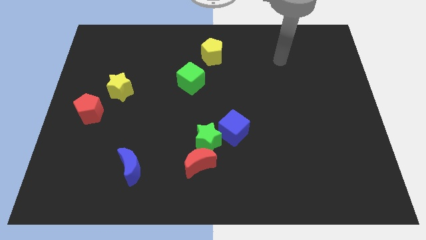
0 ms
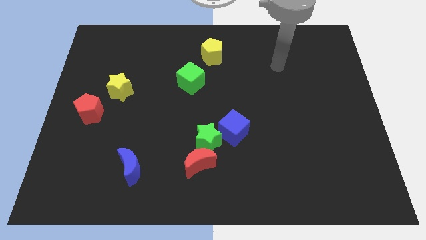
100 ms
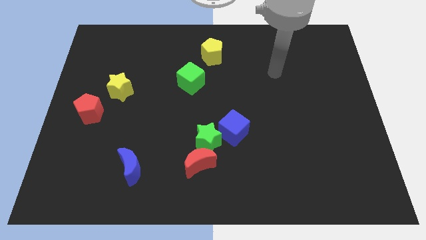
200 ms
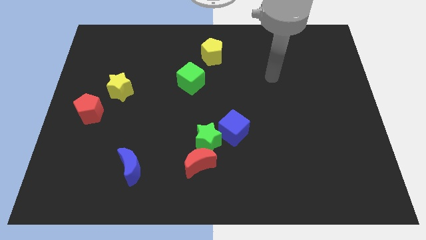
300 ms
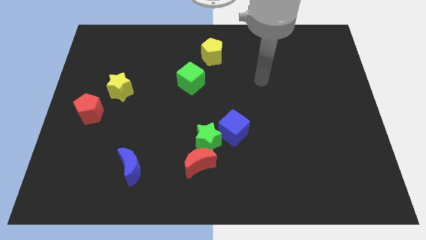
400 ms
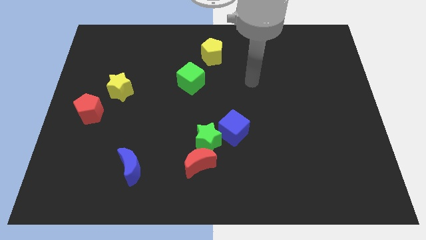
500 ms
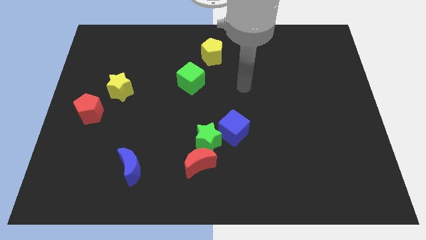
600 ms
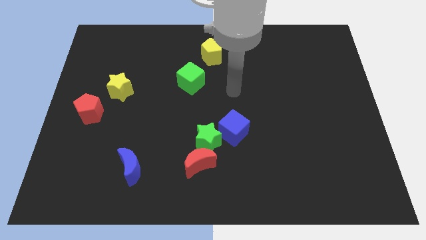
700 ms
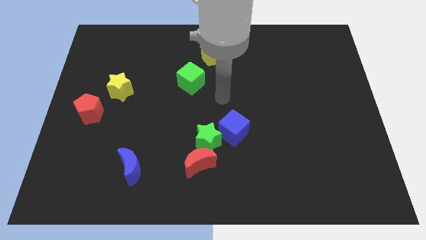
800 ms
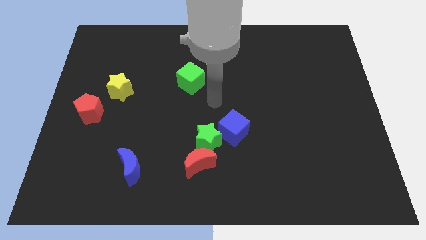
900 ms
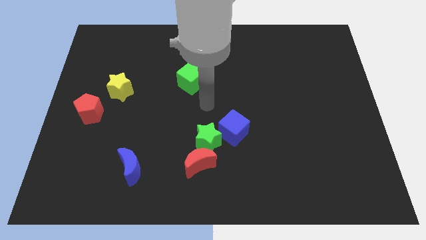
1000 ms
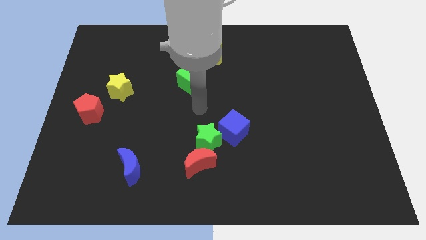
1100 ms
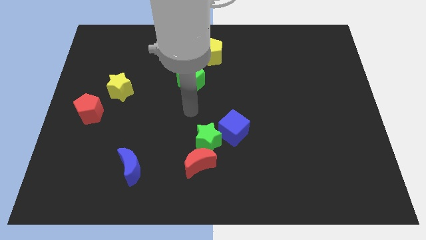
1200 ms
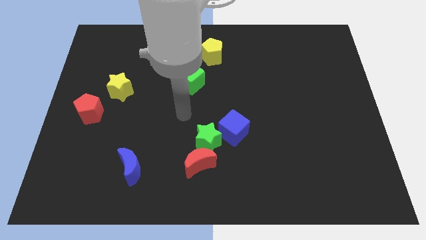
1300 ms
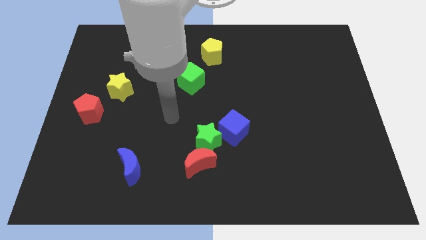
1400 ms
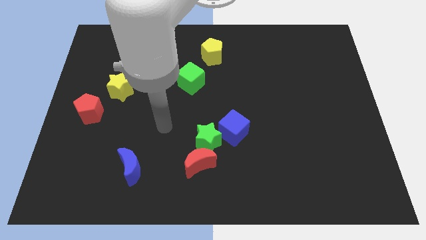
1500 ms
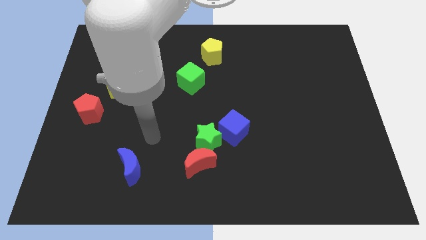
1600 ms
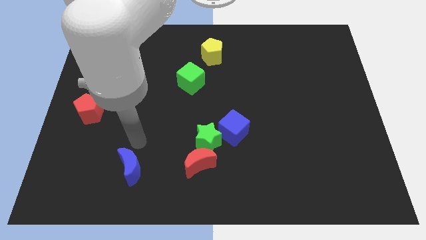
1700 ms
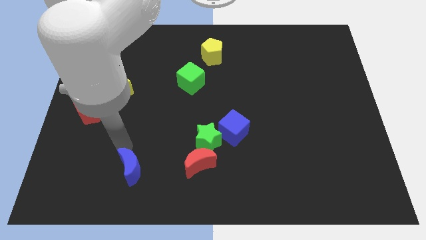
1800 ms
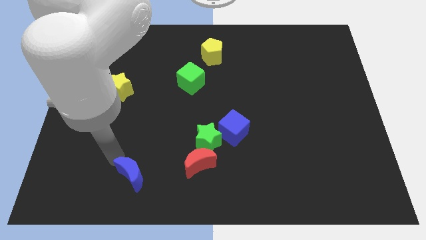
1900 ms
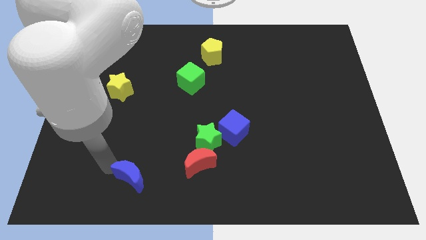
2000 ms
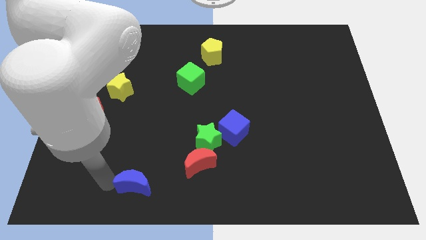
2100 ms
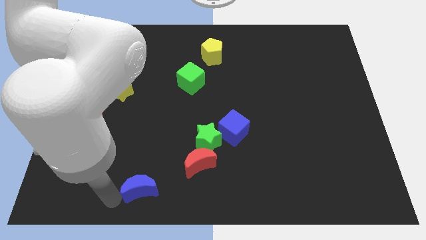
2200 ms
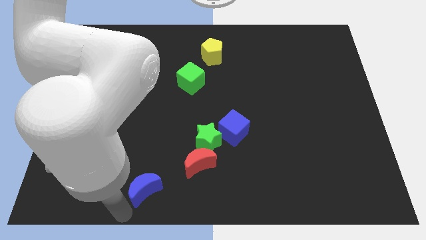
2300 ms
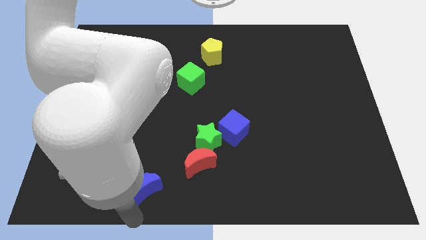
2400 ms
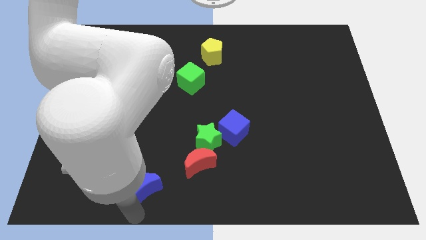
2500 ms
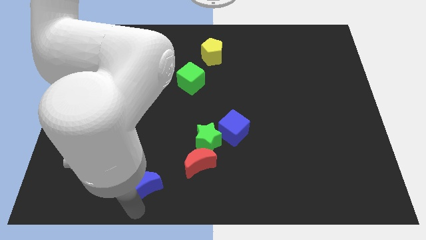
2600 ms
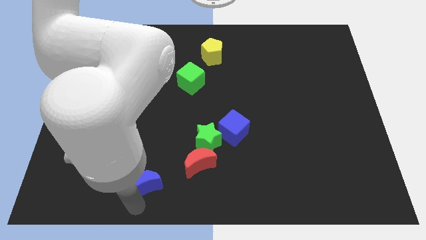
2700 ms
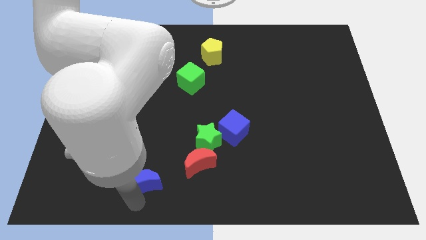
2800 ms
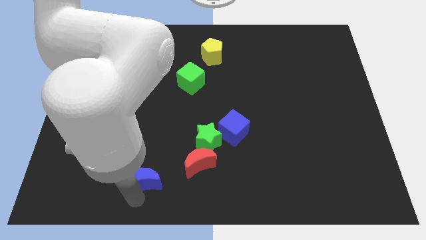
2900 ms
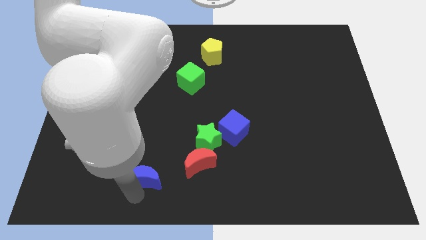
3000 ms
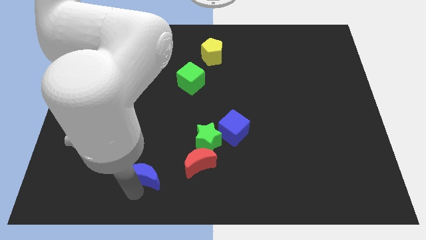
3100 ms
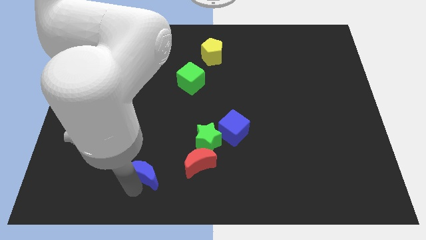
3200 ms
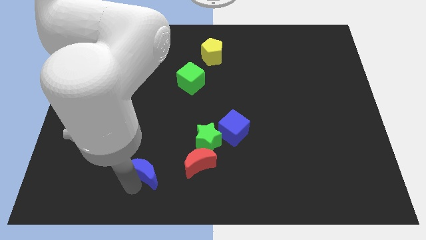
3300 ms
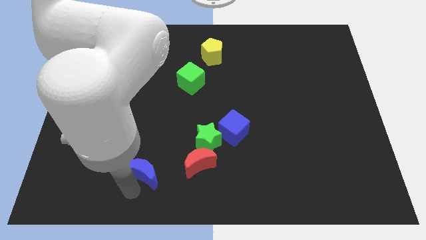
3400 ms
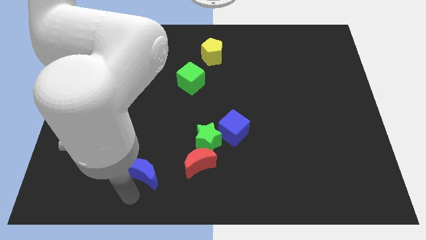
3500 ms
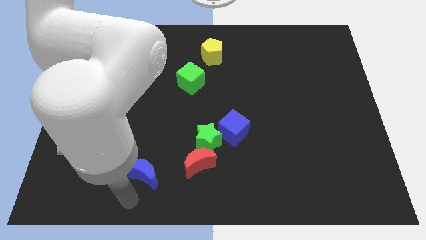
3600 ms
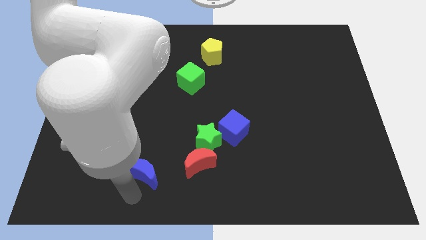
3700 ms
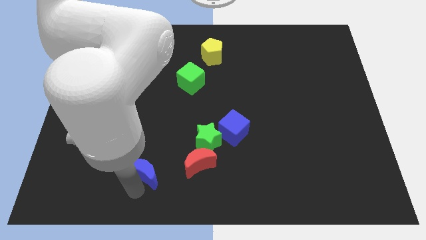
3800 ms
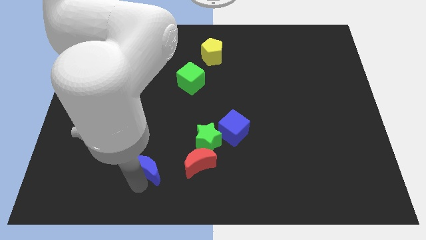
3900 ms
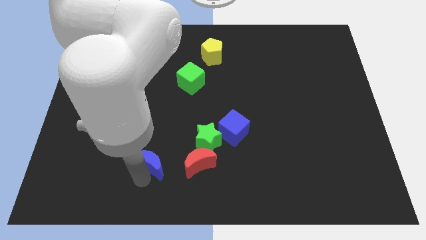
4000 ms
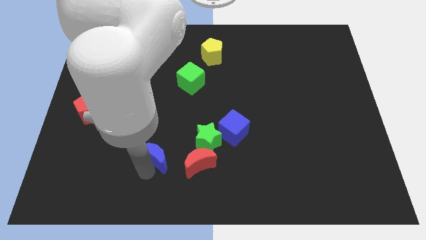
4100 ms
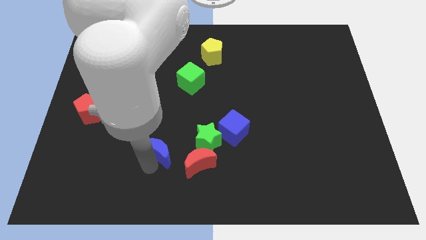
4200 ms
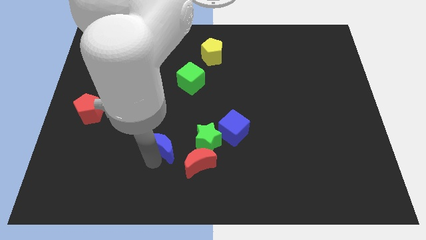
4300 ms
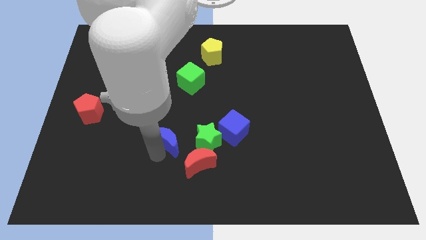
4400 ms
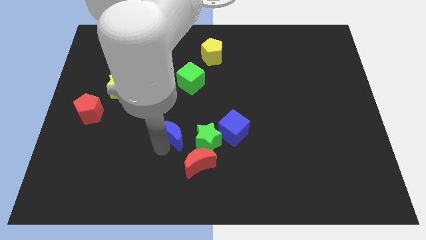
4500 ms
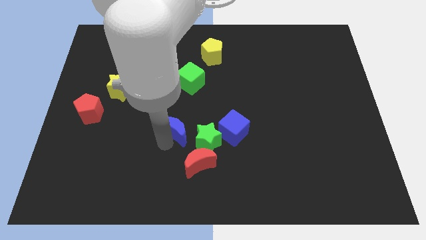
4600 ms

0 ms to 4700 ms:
move the blue moon to the middle

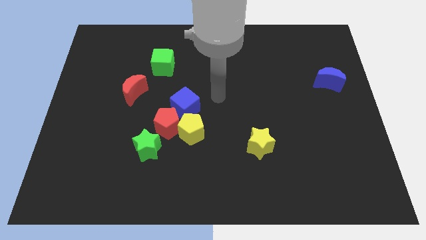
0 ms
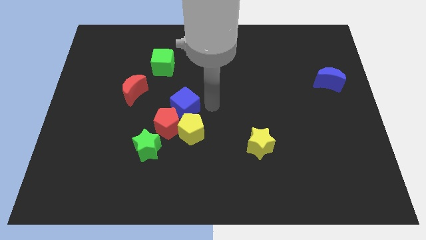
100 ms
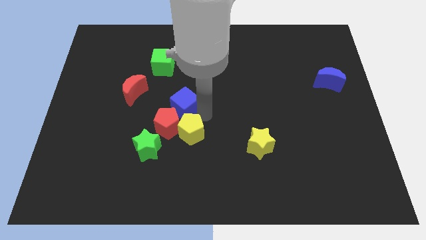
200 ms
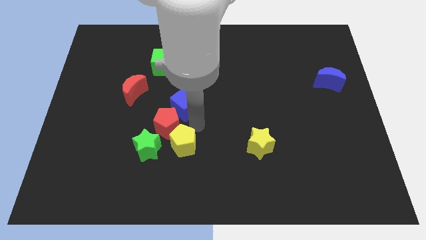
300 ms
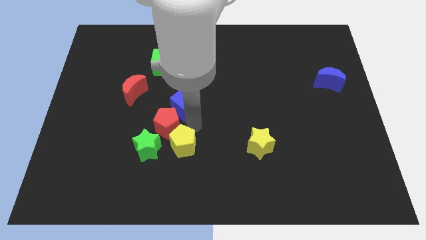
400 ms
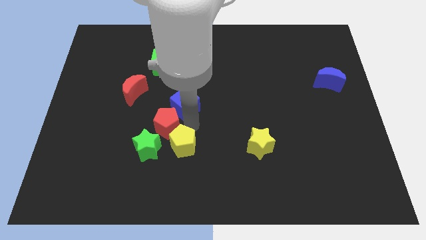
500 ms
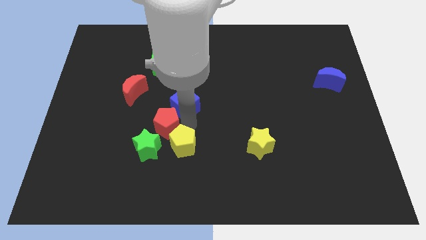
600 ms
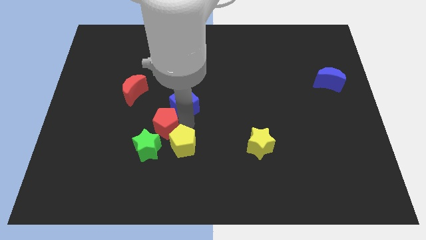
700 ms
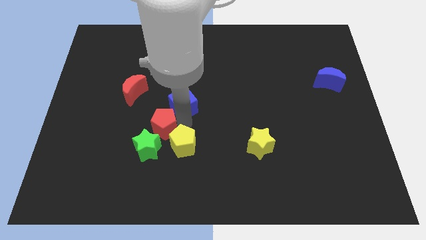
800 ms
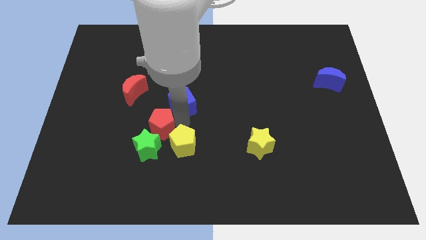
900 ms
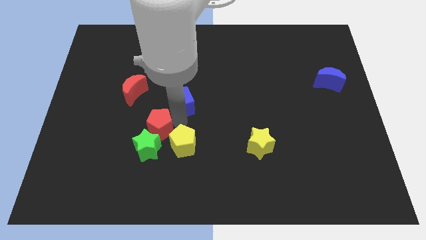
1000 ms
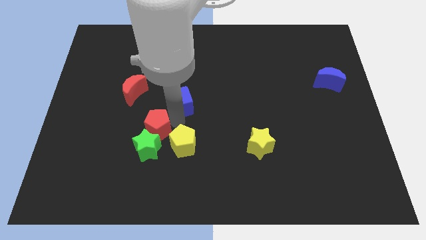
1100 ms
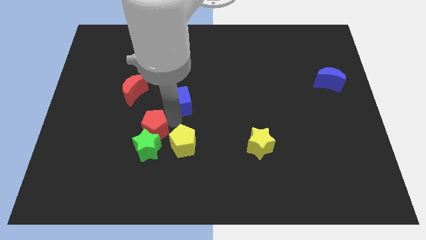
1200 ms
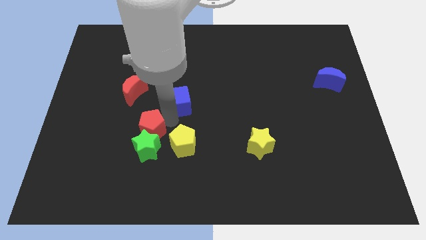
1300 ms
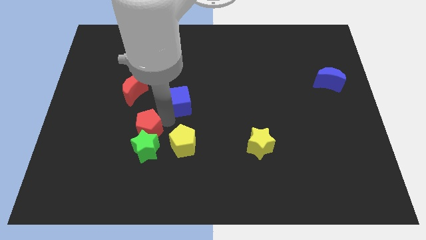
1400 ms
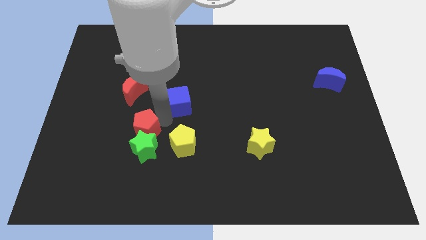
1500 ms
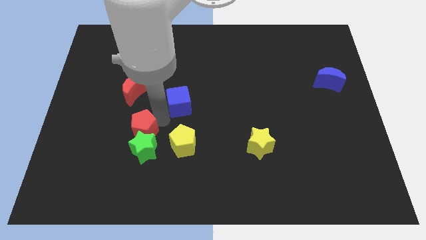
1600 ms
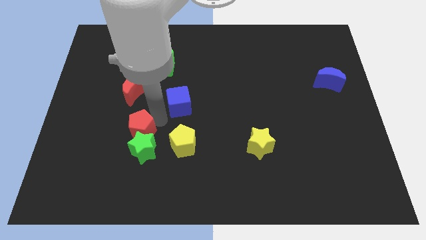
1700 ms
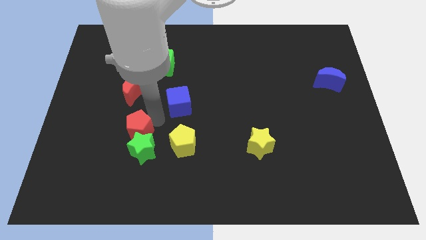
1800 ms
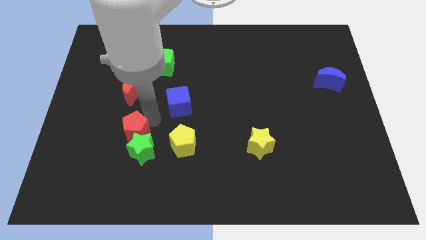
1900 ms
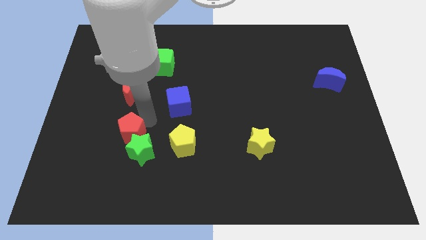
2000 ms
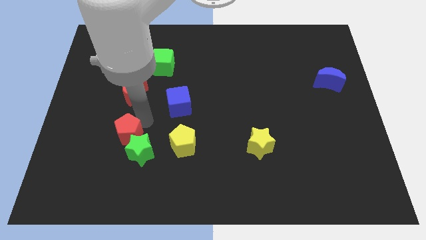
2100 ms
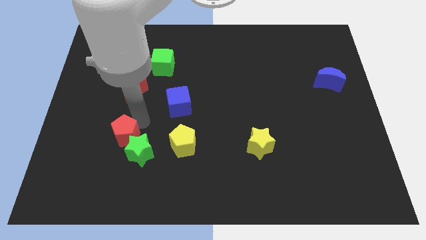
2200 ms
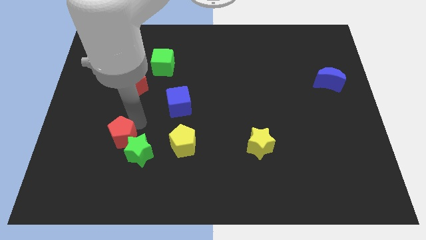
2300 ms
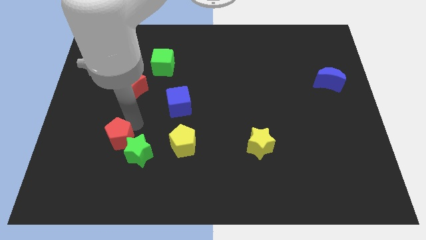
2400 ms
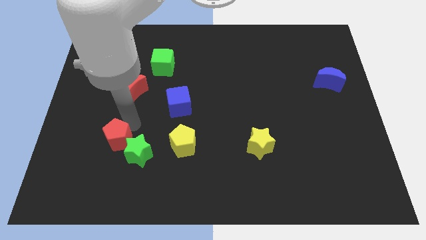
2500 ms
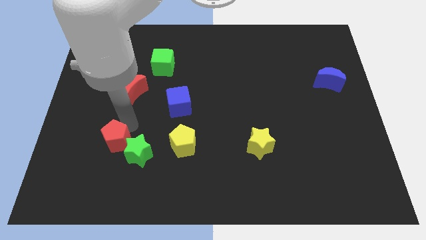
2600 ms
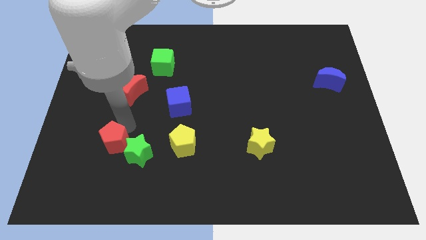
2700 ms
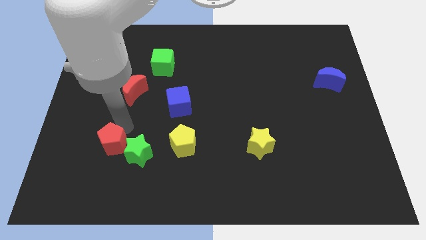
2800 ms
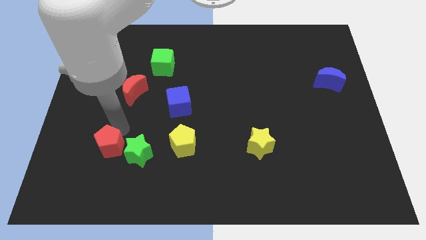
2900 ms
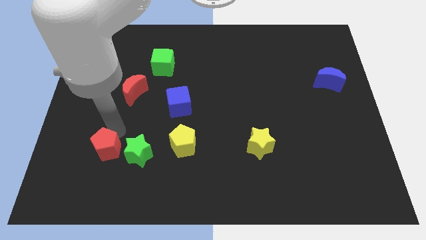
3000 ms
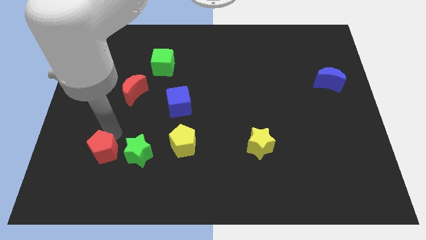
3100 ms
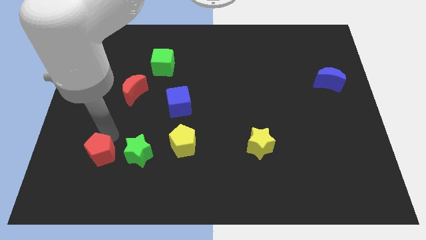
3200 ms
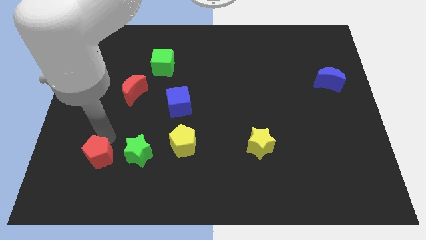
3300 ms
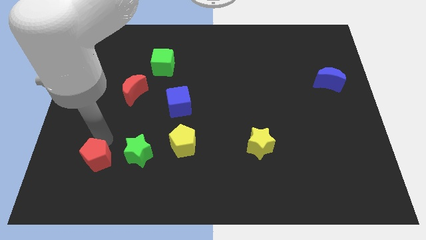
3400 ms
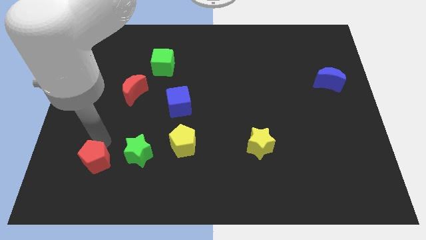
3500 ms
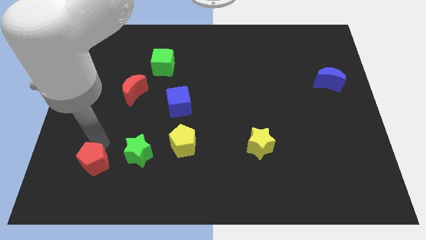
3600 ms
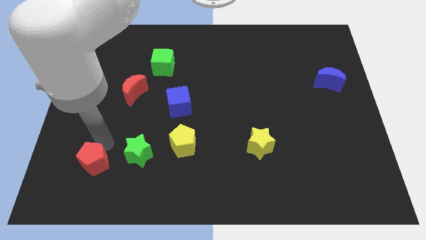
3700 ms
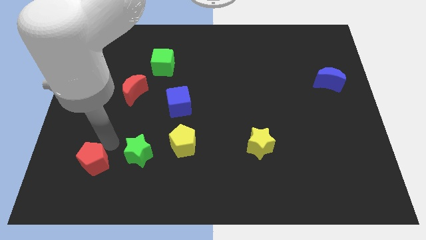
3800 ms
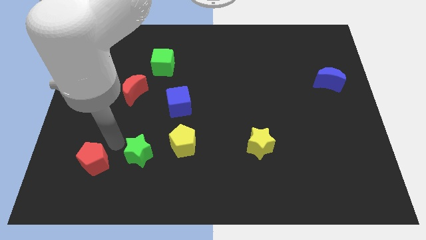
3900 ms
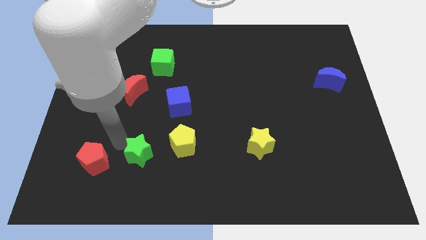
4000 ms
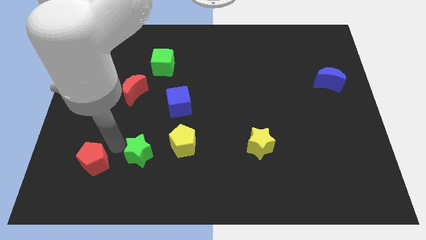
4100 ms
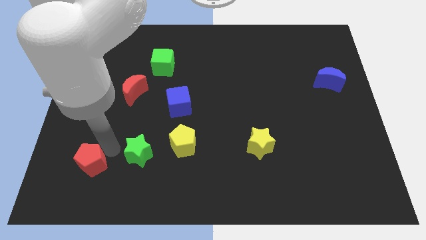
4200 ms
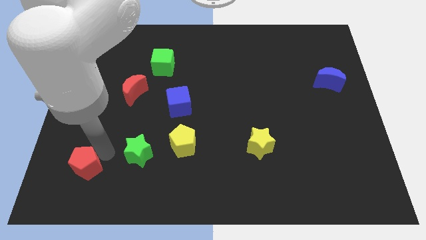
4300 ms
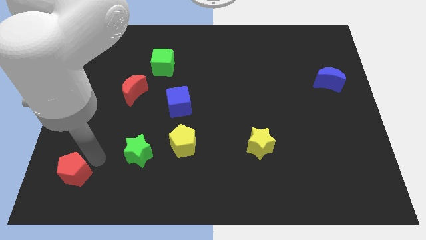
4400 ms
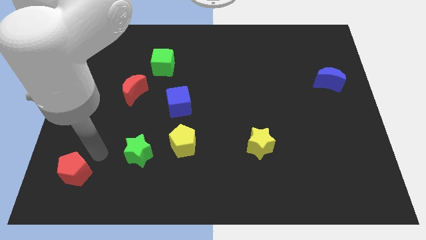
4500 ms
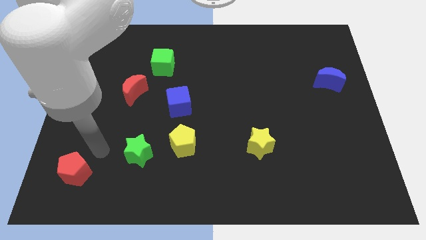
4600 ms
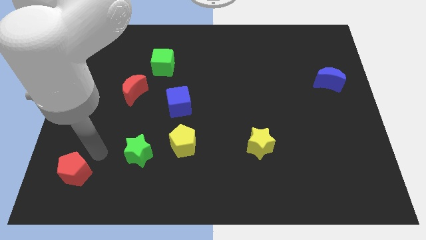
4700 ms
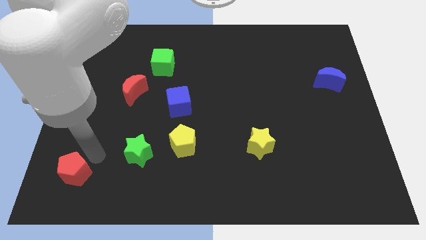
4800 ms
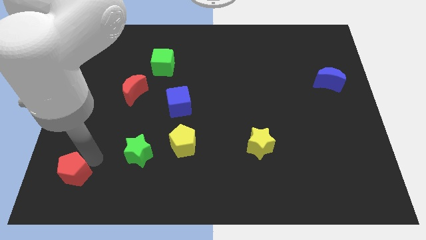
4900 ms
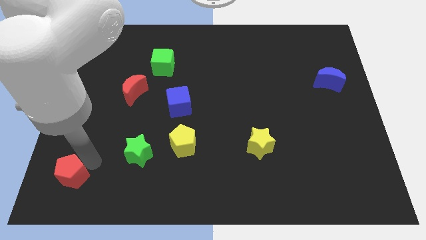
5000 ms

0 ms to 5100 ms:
move the red pentagon to the bottom left
